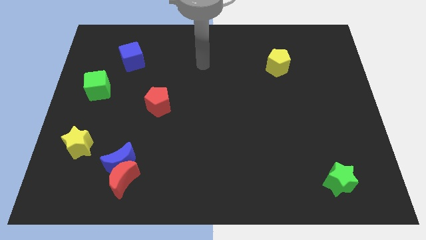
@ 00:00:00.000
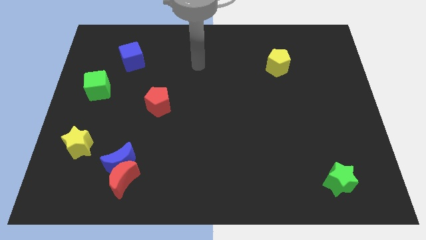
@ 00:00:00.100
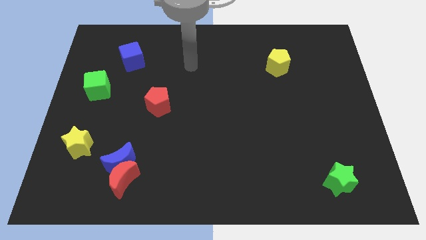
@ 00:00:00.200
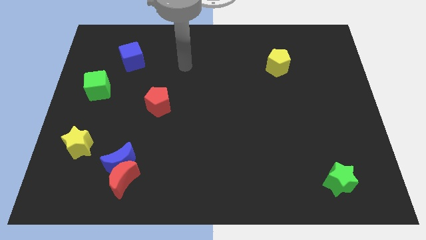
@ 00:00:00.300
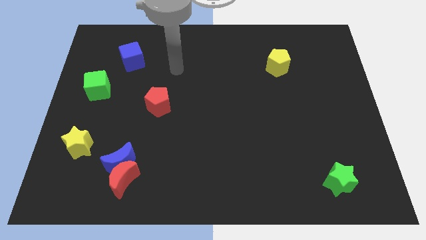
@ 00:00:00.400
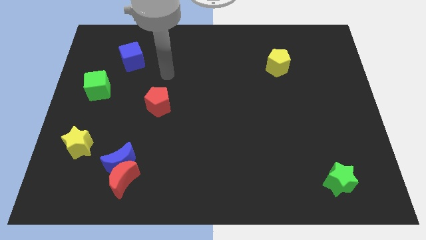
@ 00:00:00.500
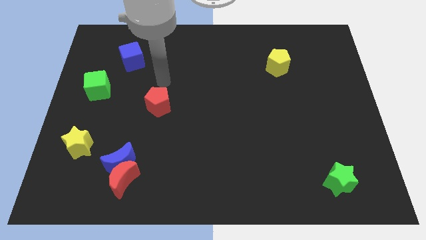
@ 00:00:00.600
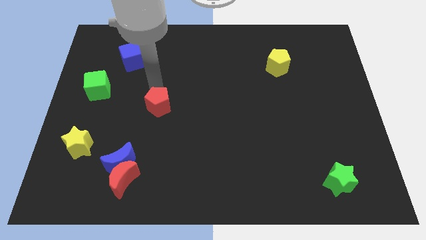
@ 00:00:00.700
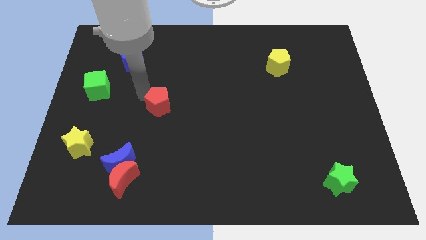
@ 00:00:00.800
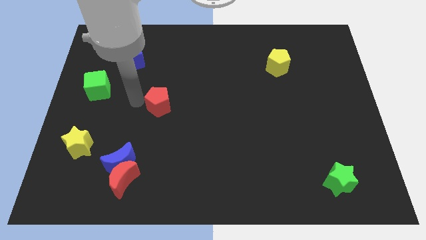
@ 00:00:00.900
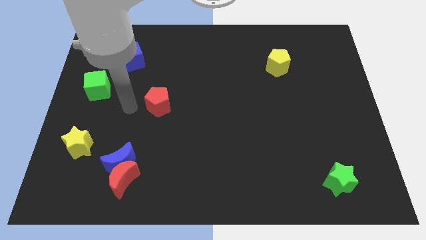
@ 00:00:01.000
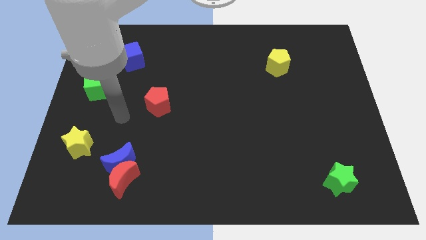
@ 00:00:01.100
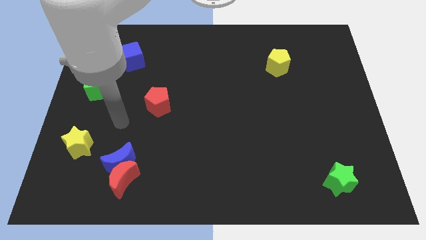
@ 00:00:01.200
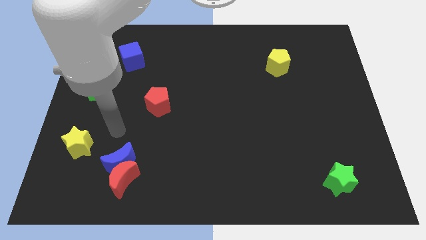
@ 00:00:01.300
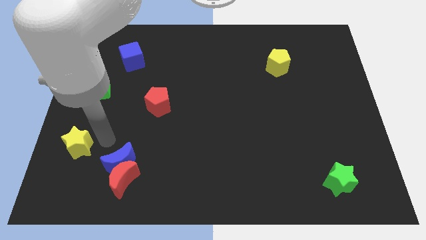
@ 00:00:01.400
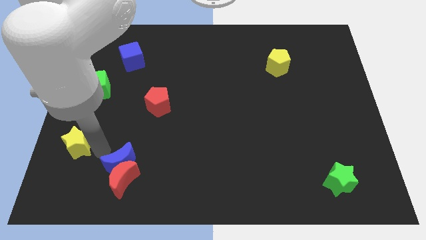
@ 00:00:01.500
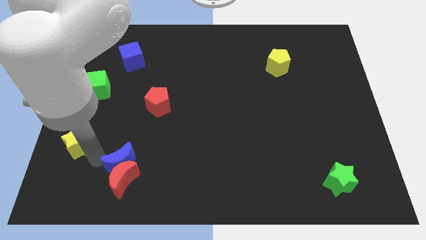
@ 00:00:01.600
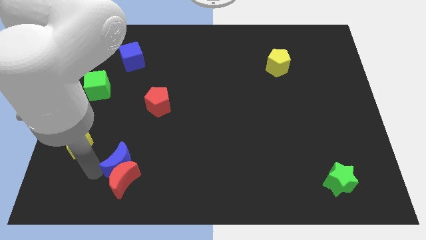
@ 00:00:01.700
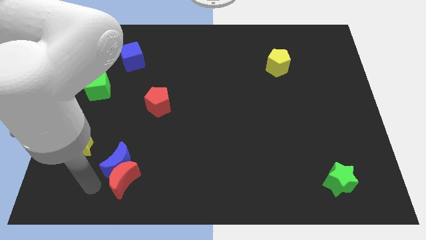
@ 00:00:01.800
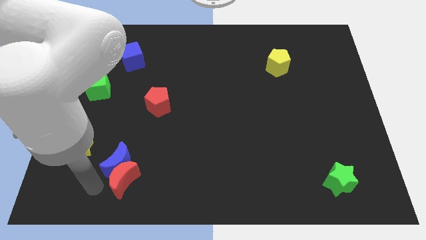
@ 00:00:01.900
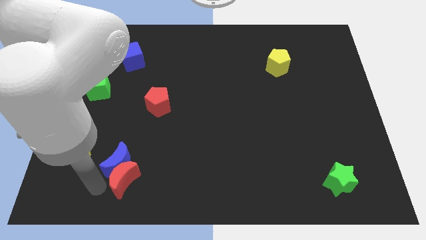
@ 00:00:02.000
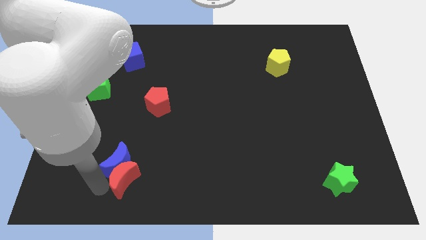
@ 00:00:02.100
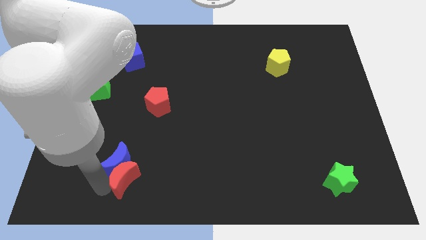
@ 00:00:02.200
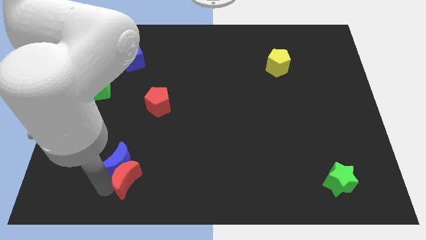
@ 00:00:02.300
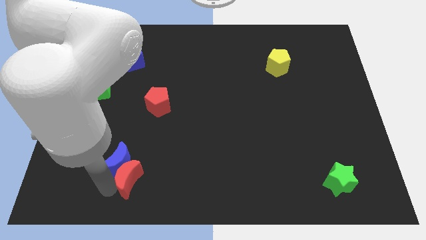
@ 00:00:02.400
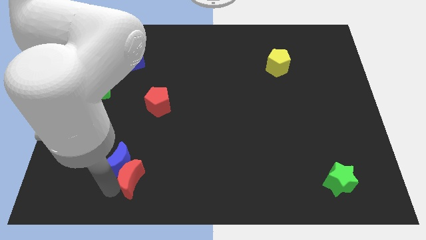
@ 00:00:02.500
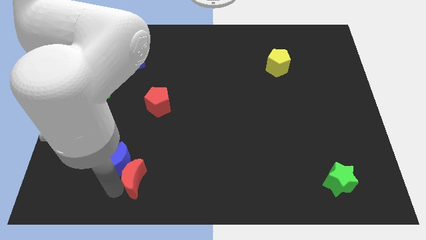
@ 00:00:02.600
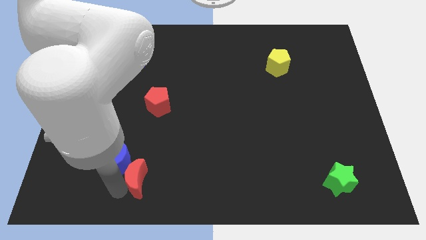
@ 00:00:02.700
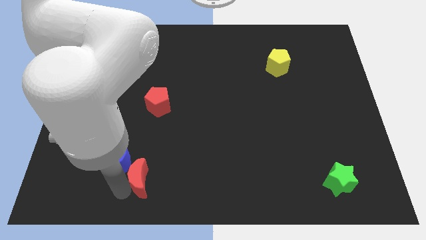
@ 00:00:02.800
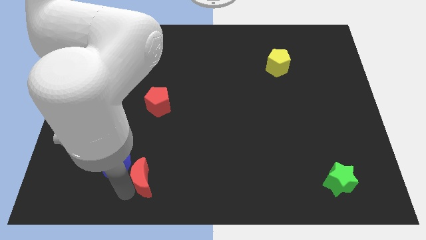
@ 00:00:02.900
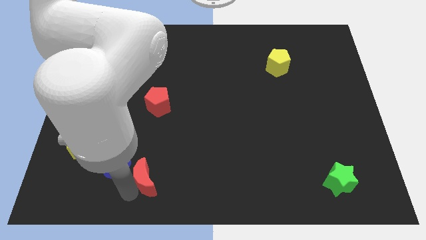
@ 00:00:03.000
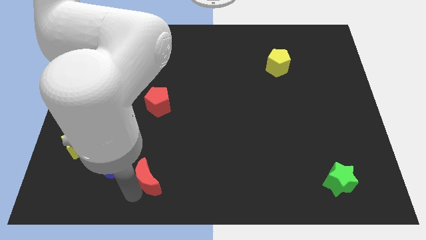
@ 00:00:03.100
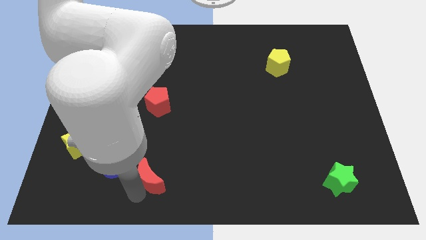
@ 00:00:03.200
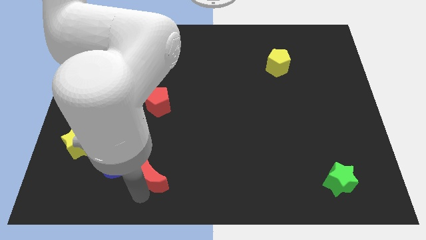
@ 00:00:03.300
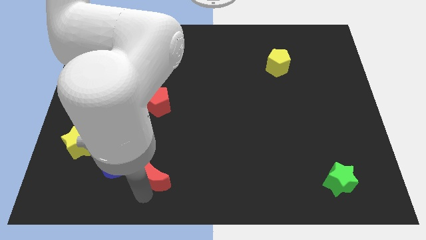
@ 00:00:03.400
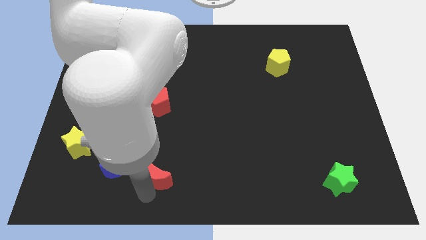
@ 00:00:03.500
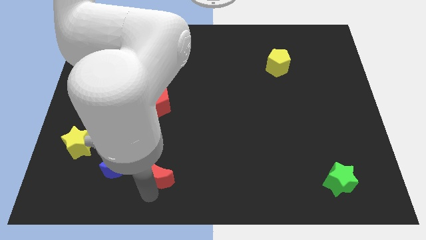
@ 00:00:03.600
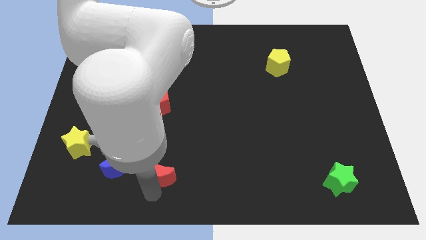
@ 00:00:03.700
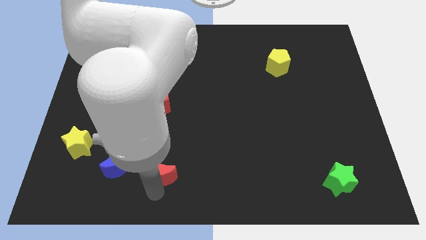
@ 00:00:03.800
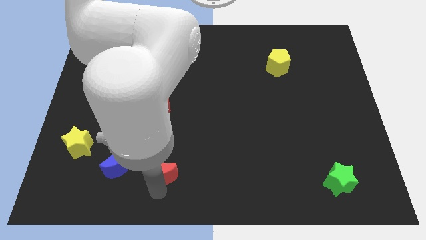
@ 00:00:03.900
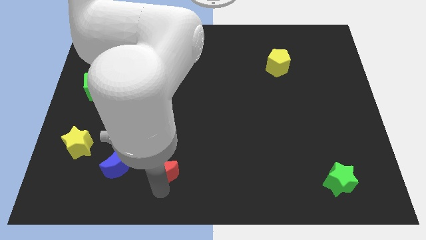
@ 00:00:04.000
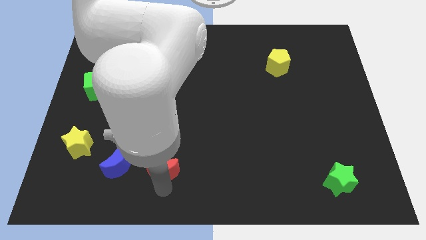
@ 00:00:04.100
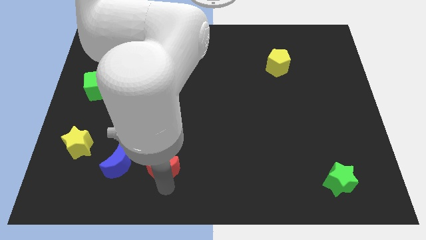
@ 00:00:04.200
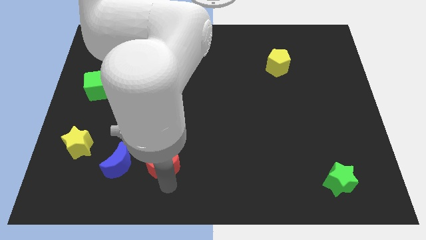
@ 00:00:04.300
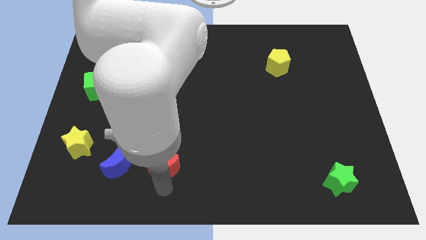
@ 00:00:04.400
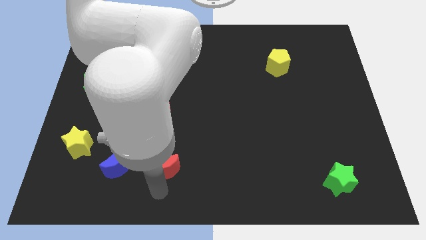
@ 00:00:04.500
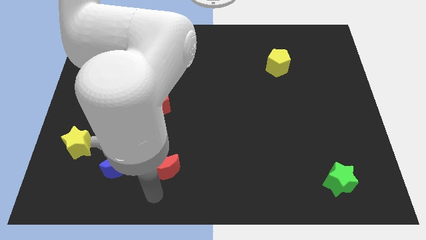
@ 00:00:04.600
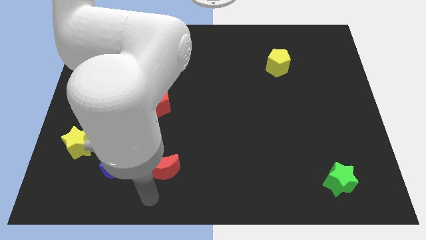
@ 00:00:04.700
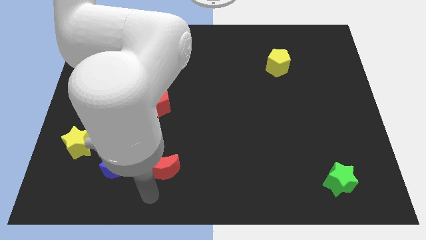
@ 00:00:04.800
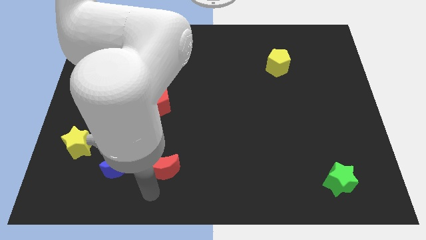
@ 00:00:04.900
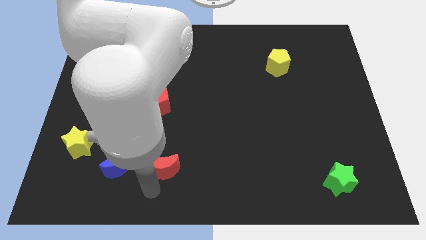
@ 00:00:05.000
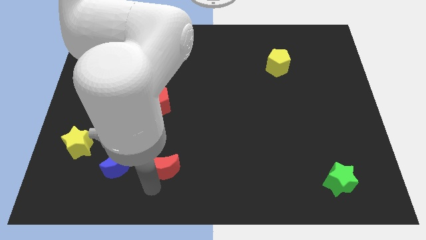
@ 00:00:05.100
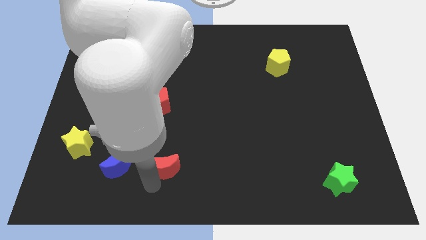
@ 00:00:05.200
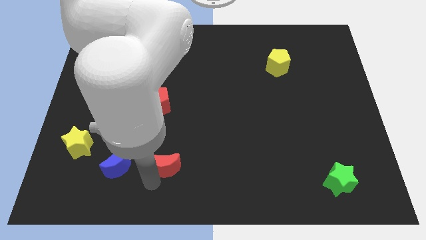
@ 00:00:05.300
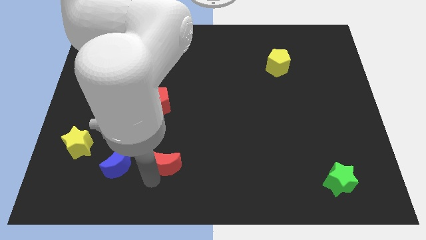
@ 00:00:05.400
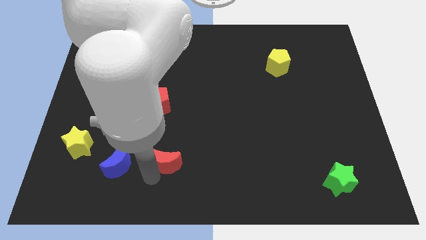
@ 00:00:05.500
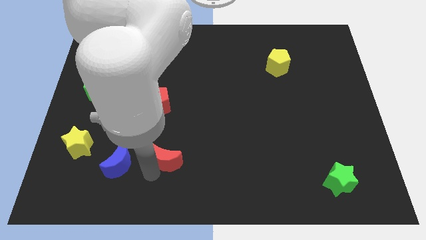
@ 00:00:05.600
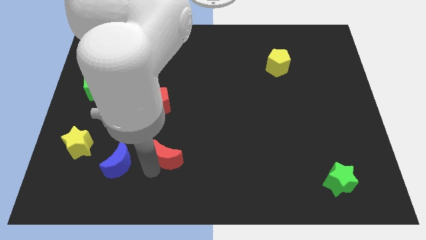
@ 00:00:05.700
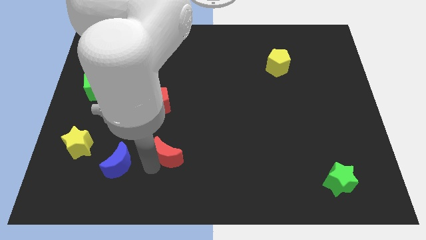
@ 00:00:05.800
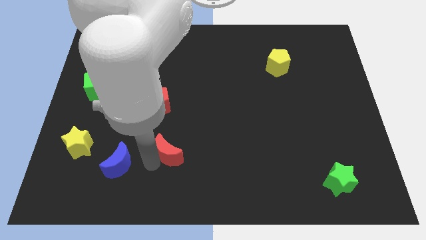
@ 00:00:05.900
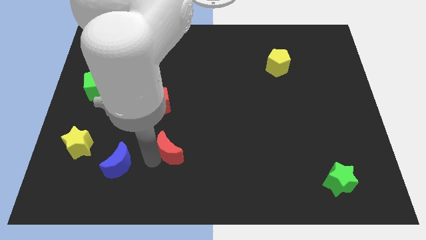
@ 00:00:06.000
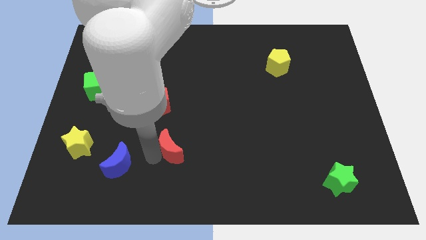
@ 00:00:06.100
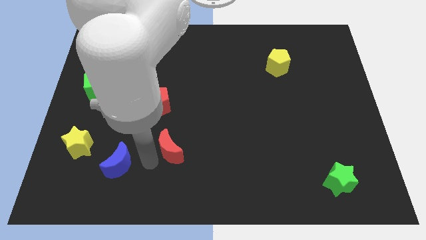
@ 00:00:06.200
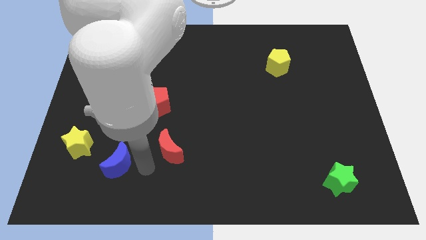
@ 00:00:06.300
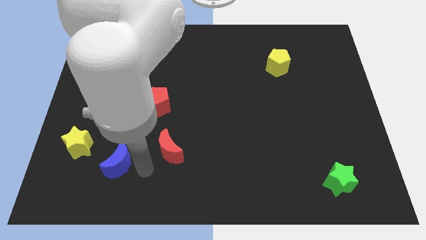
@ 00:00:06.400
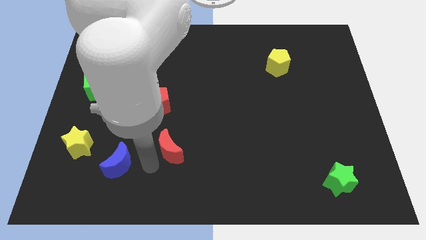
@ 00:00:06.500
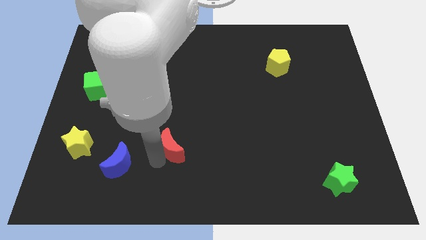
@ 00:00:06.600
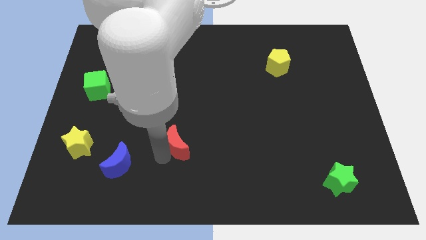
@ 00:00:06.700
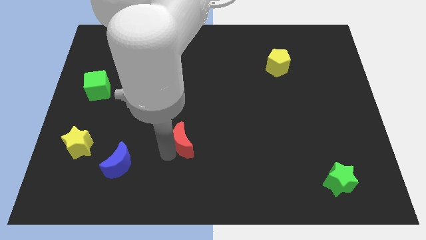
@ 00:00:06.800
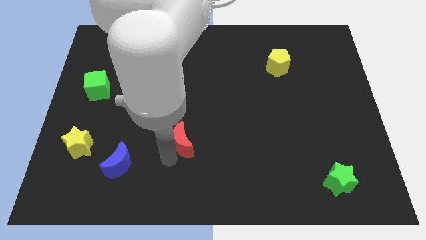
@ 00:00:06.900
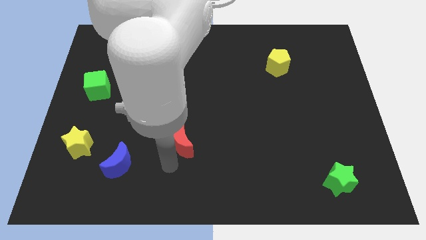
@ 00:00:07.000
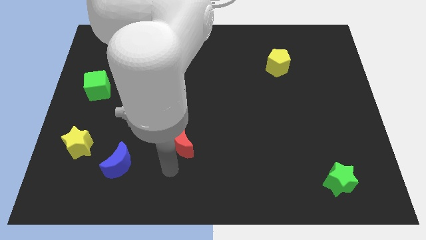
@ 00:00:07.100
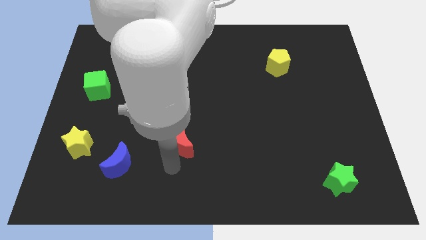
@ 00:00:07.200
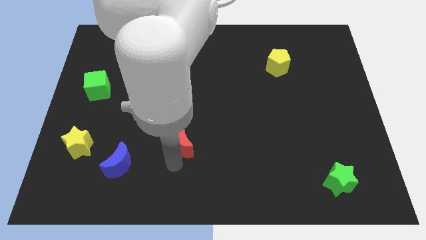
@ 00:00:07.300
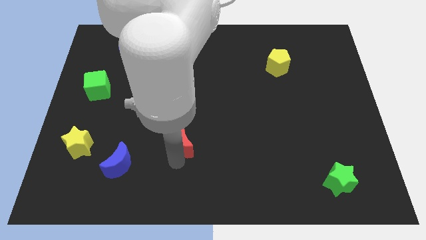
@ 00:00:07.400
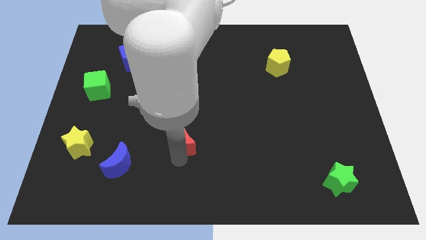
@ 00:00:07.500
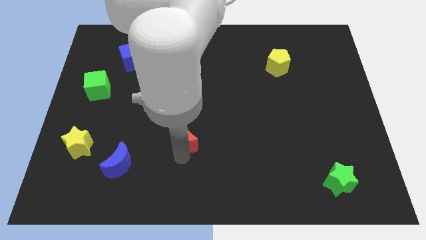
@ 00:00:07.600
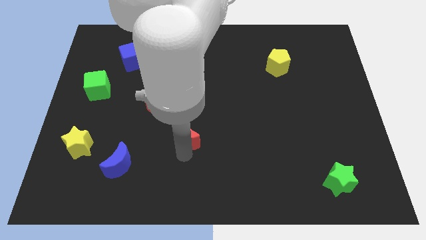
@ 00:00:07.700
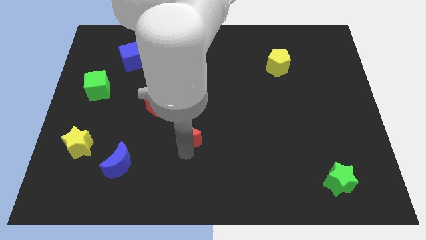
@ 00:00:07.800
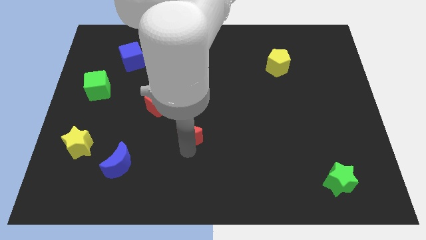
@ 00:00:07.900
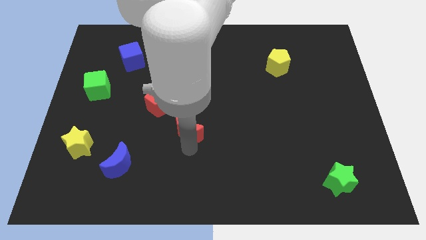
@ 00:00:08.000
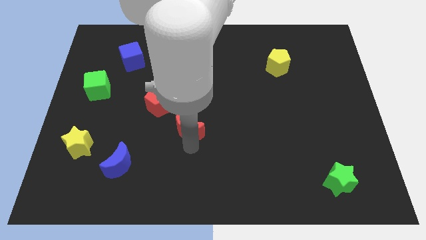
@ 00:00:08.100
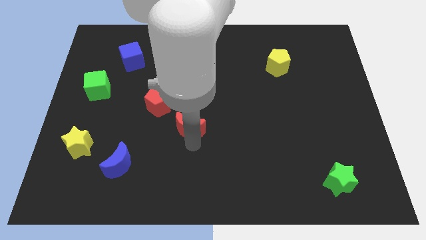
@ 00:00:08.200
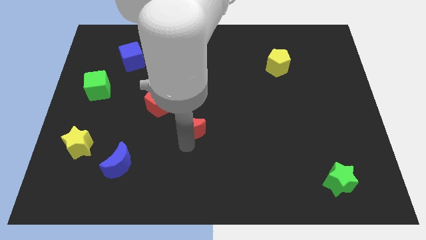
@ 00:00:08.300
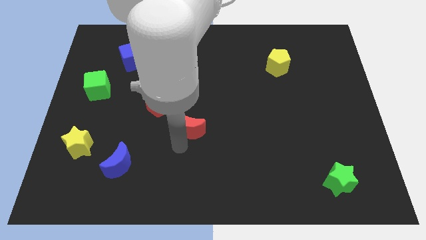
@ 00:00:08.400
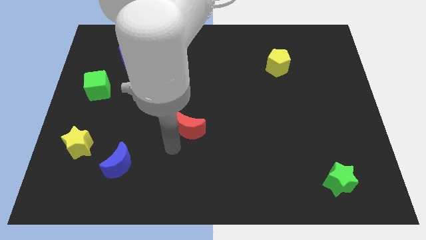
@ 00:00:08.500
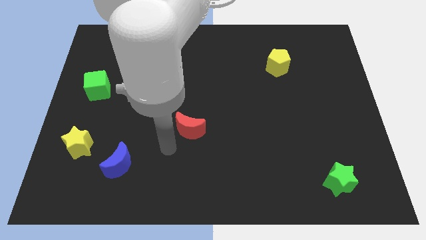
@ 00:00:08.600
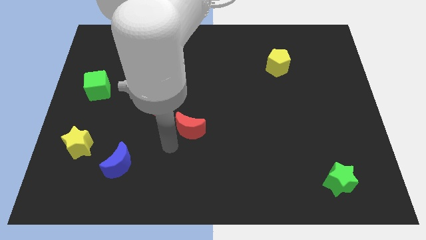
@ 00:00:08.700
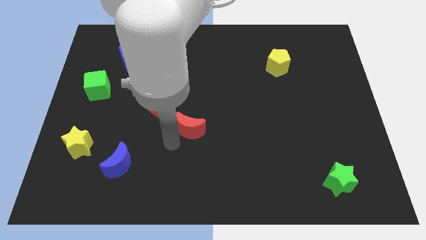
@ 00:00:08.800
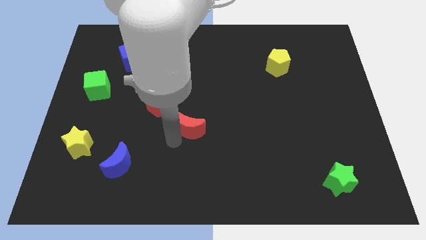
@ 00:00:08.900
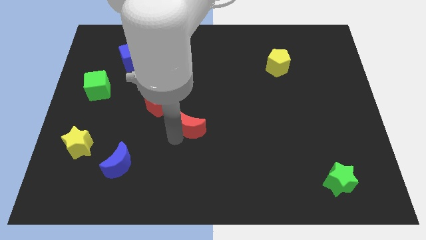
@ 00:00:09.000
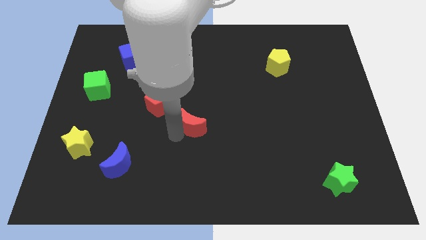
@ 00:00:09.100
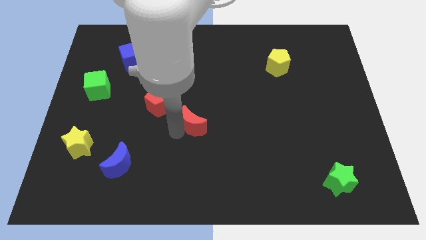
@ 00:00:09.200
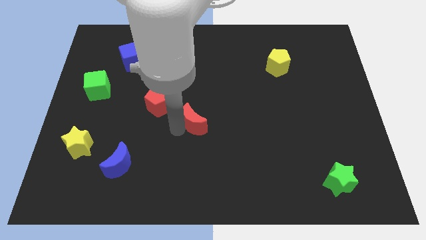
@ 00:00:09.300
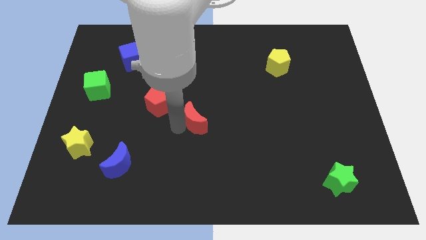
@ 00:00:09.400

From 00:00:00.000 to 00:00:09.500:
slide the red moon diagonally upwards and to the right
